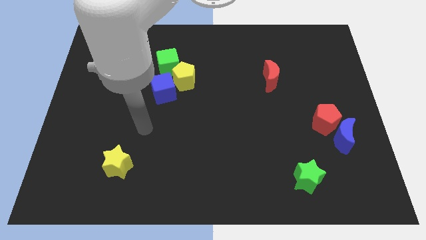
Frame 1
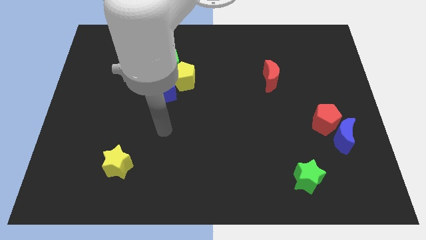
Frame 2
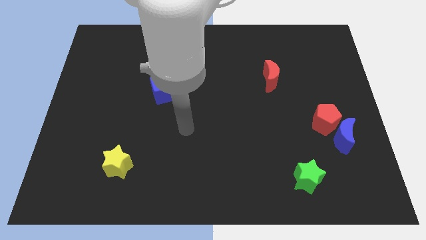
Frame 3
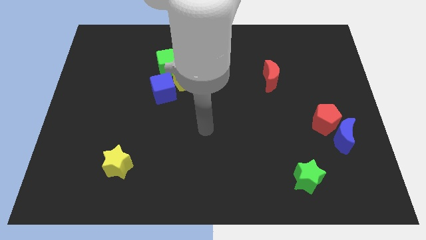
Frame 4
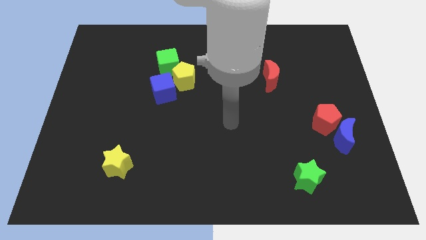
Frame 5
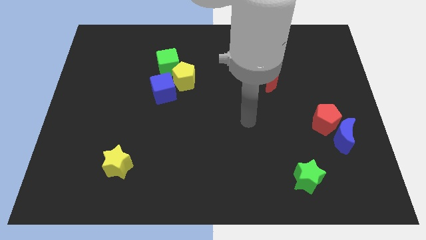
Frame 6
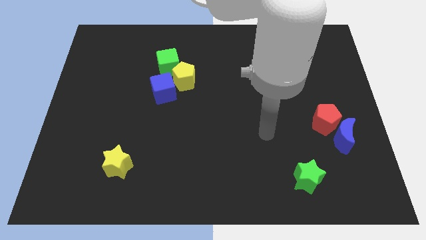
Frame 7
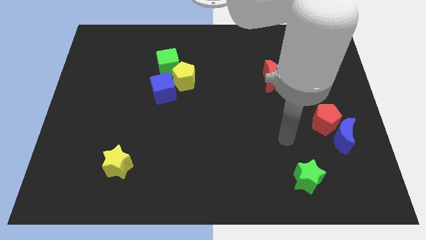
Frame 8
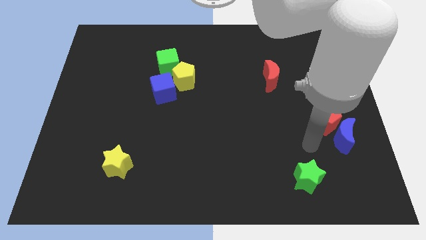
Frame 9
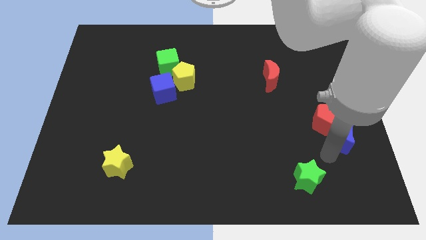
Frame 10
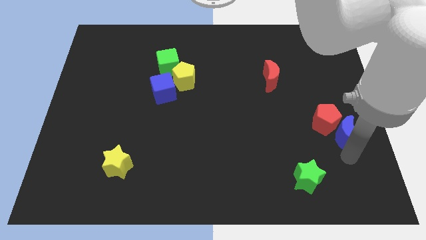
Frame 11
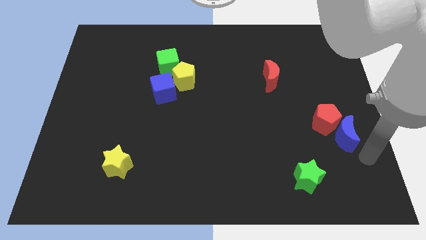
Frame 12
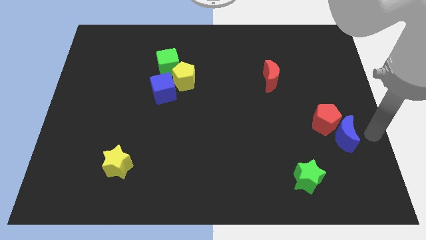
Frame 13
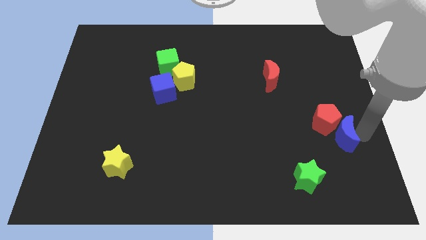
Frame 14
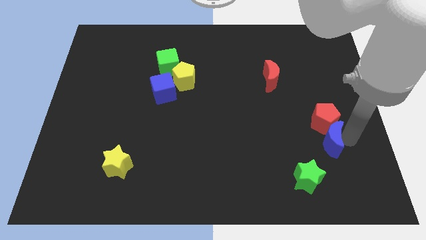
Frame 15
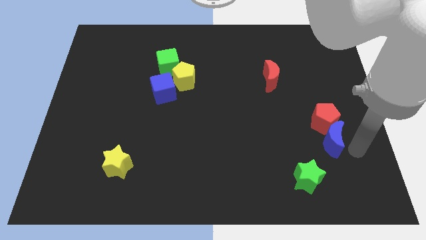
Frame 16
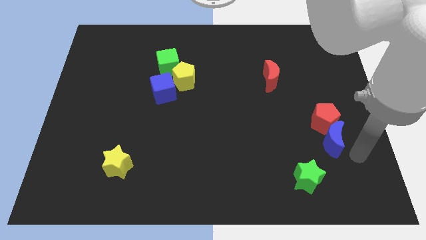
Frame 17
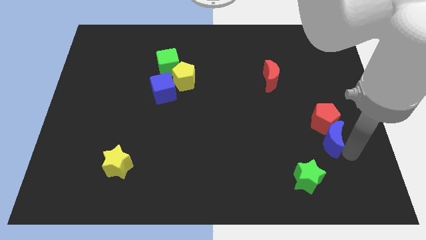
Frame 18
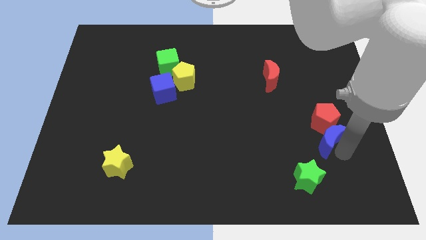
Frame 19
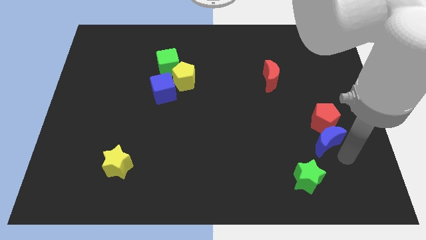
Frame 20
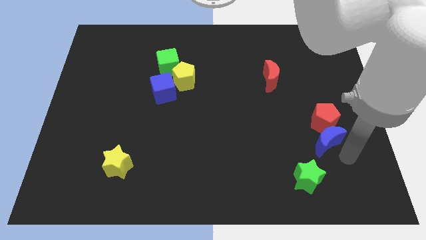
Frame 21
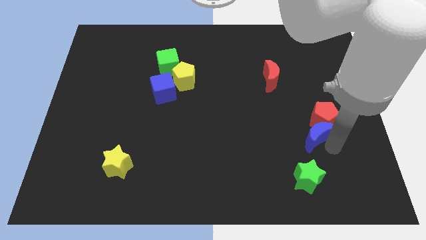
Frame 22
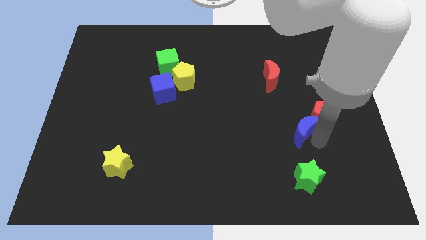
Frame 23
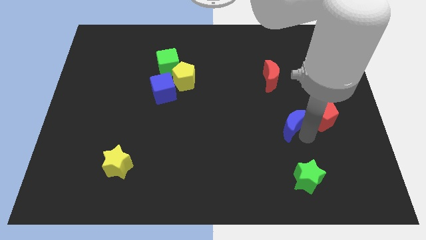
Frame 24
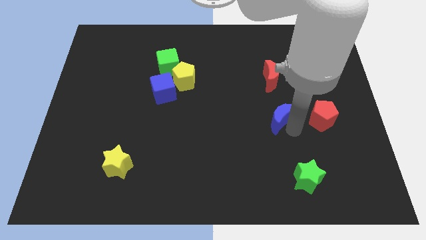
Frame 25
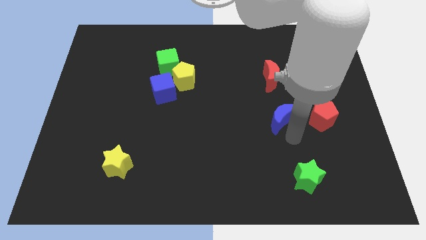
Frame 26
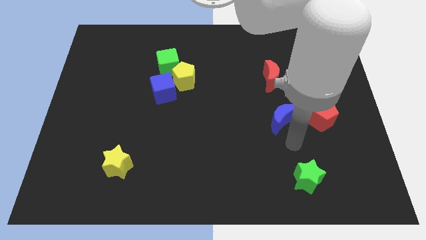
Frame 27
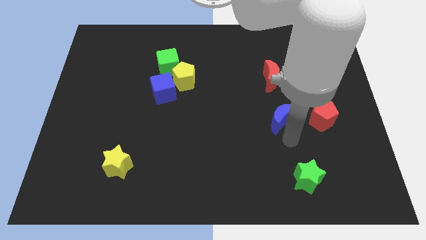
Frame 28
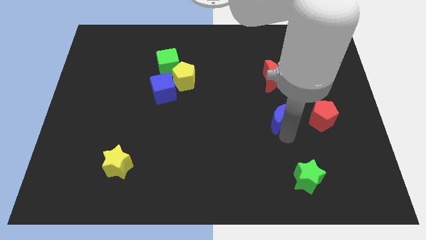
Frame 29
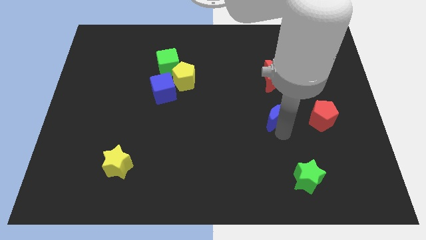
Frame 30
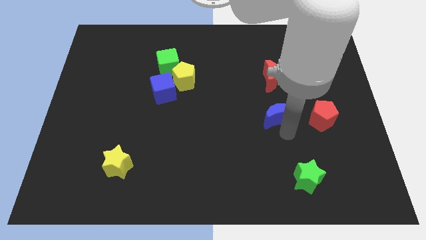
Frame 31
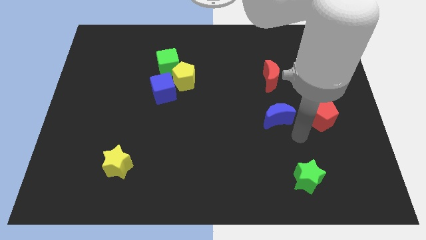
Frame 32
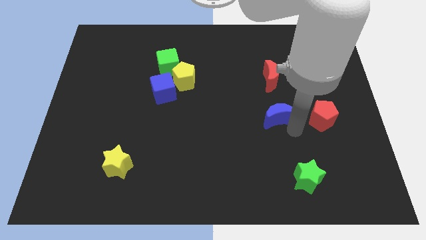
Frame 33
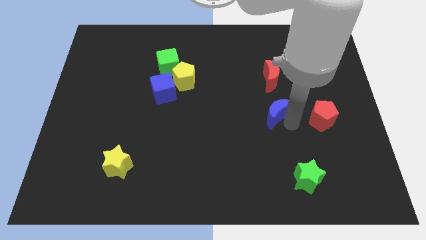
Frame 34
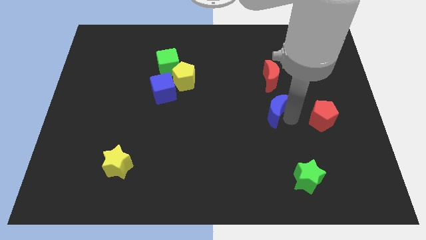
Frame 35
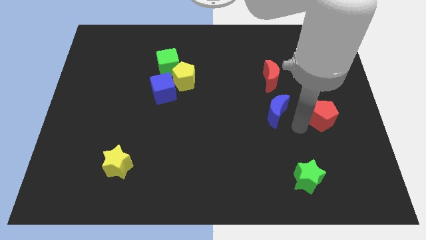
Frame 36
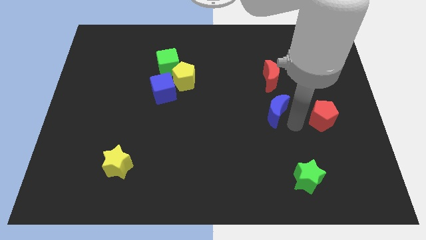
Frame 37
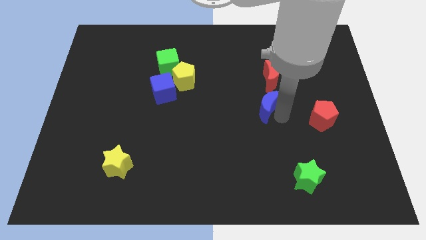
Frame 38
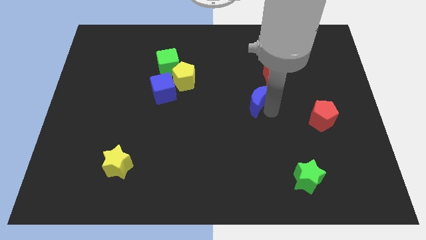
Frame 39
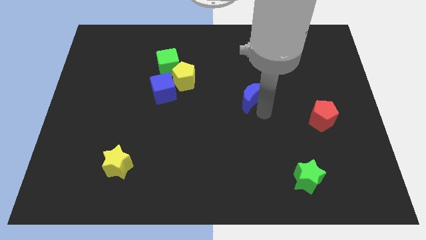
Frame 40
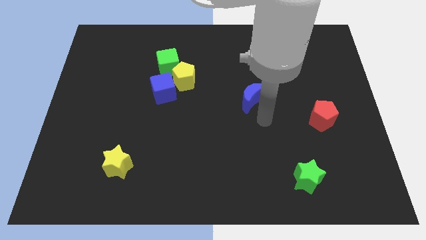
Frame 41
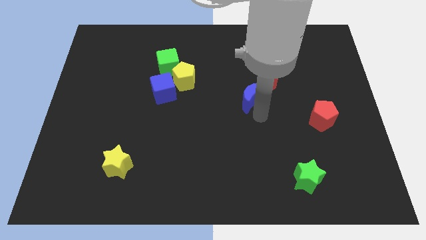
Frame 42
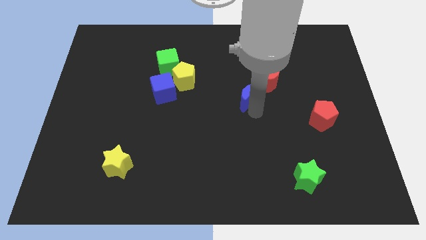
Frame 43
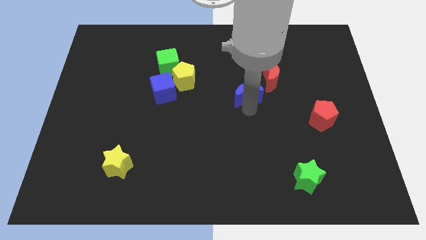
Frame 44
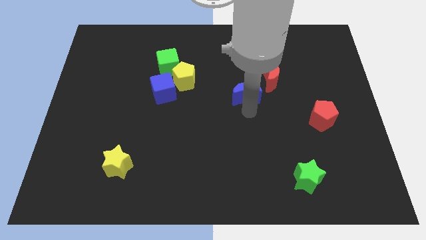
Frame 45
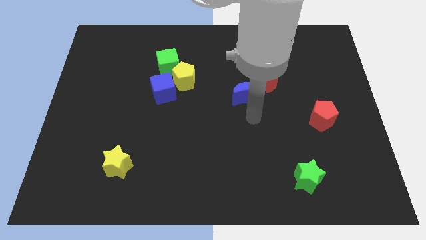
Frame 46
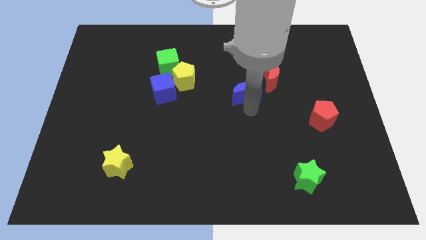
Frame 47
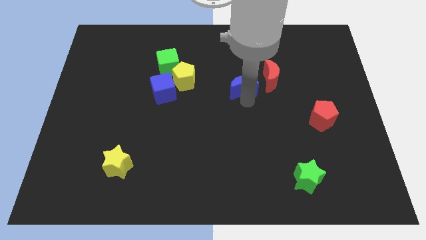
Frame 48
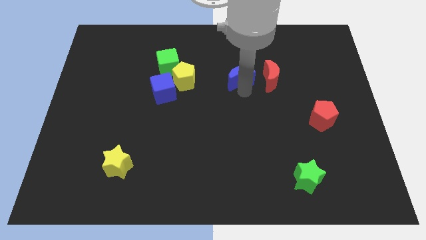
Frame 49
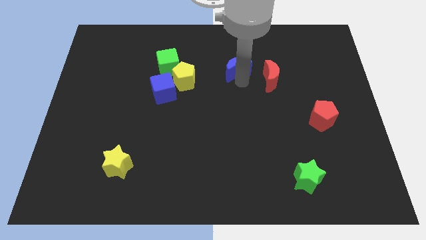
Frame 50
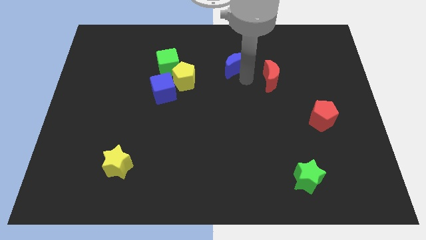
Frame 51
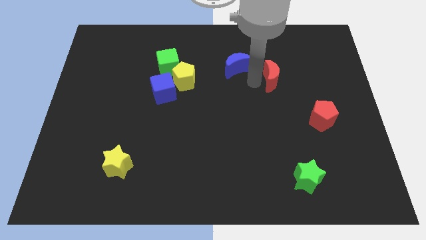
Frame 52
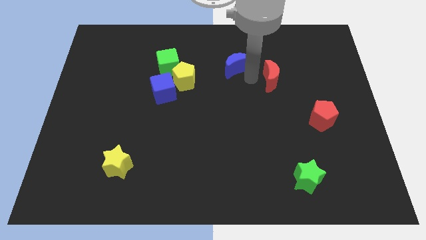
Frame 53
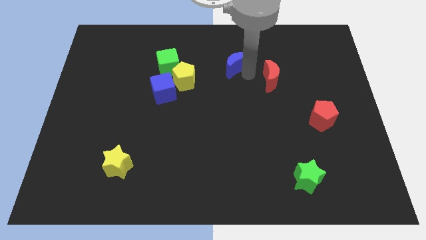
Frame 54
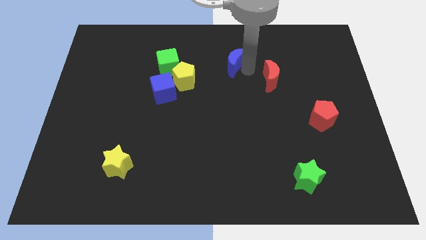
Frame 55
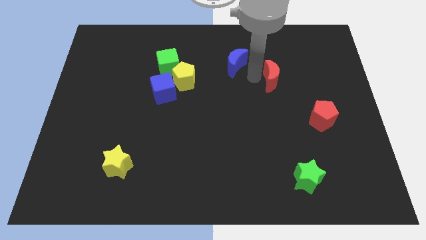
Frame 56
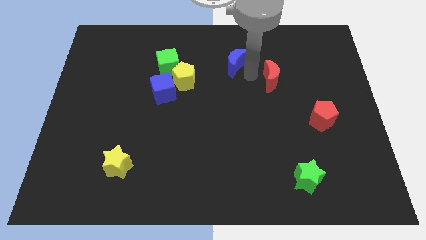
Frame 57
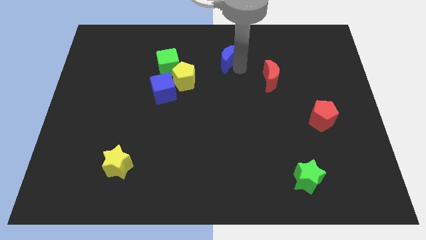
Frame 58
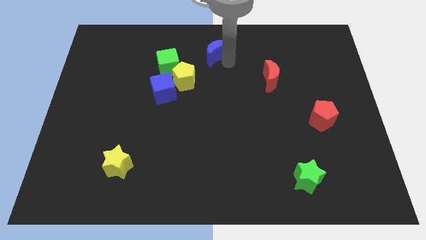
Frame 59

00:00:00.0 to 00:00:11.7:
slide the blue moon to the towards your base
